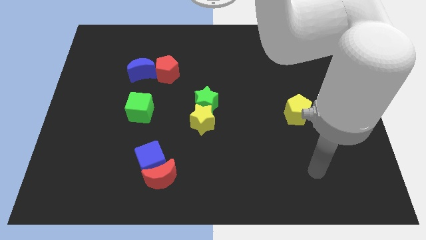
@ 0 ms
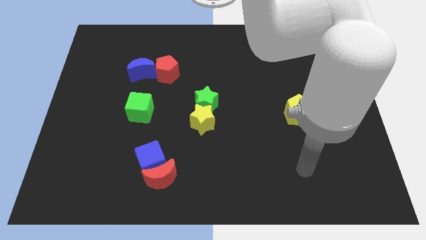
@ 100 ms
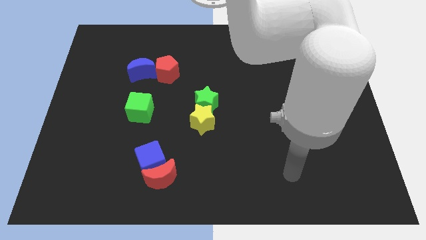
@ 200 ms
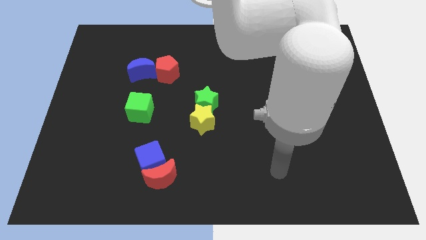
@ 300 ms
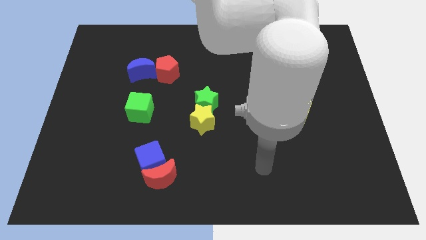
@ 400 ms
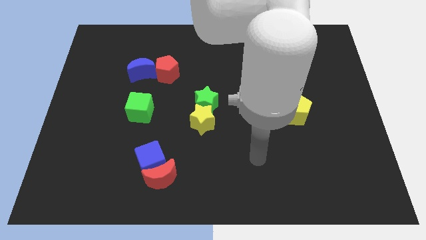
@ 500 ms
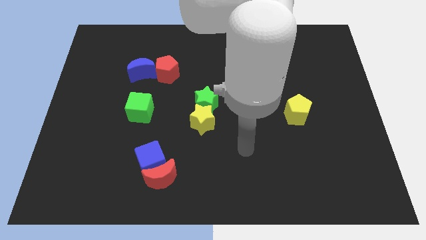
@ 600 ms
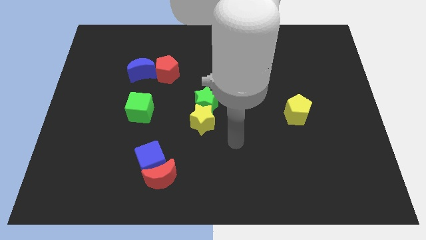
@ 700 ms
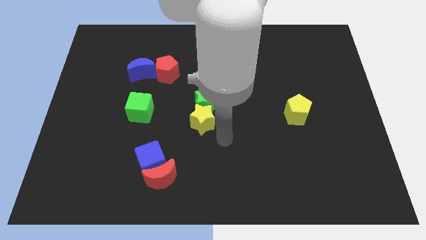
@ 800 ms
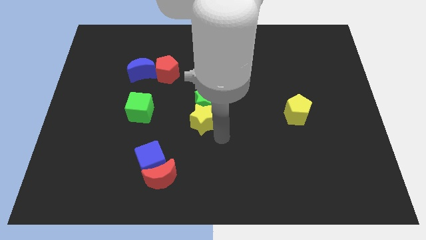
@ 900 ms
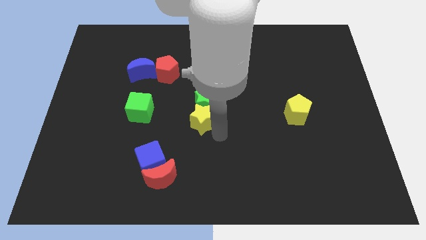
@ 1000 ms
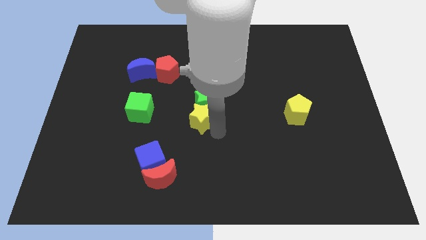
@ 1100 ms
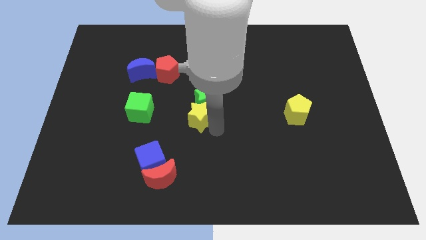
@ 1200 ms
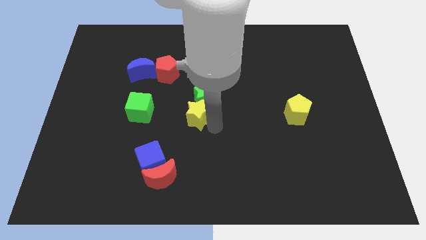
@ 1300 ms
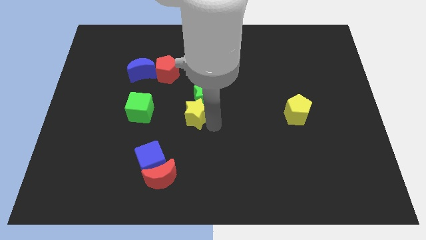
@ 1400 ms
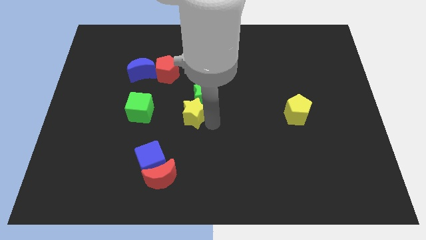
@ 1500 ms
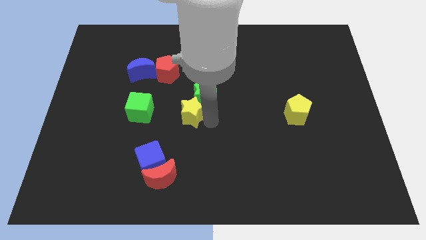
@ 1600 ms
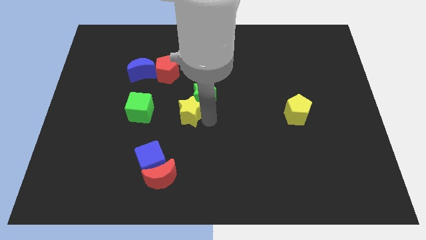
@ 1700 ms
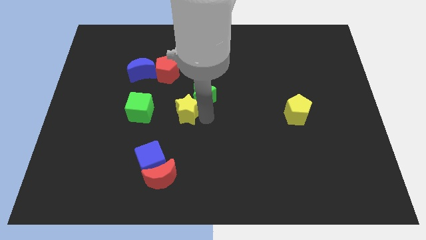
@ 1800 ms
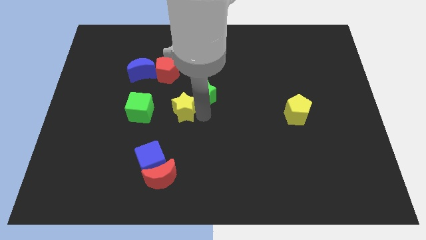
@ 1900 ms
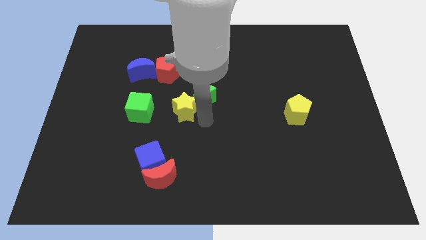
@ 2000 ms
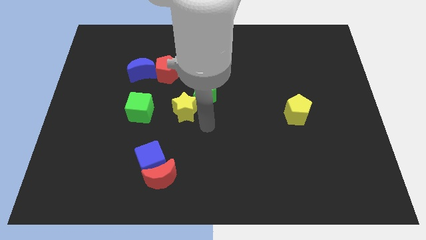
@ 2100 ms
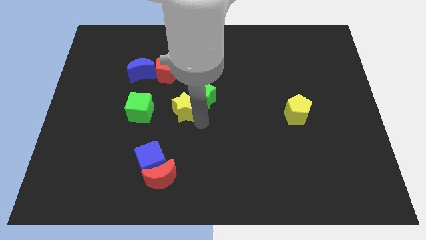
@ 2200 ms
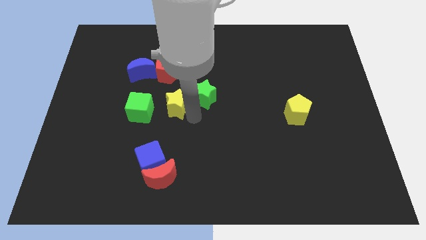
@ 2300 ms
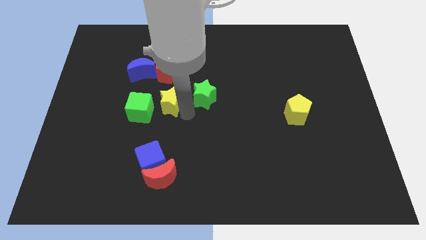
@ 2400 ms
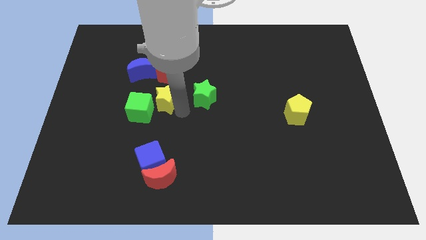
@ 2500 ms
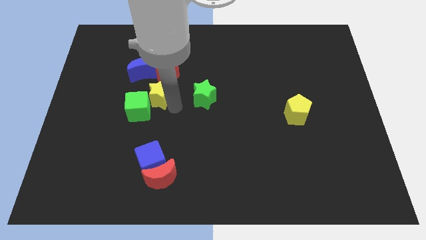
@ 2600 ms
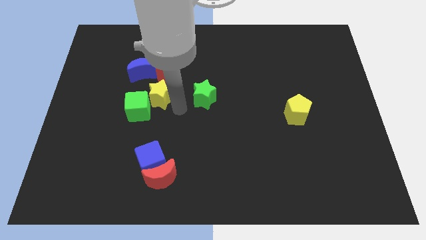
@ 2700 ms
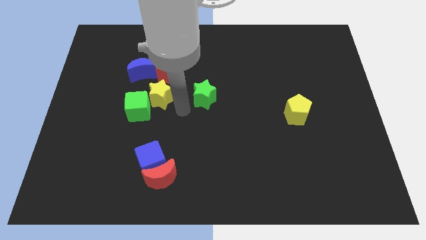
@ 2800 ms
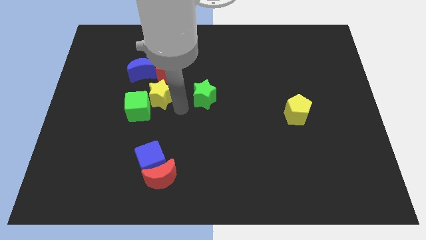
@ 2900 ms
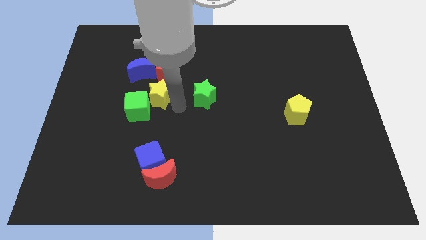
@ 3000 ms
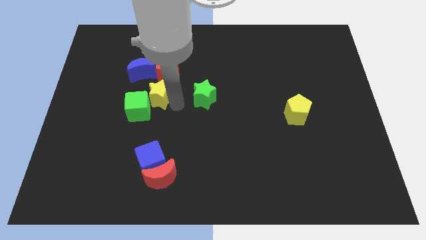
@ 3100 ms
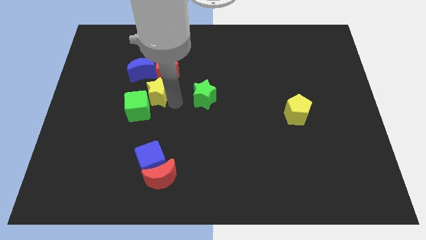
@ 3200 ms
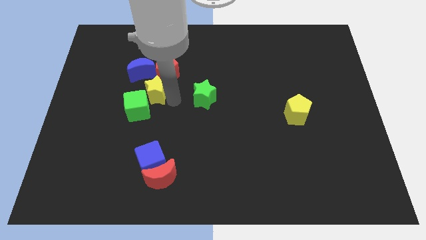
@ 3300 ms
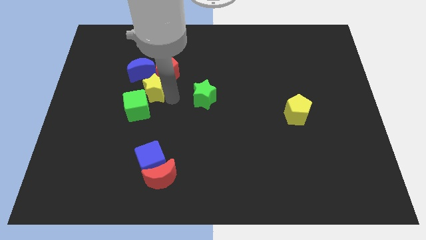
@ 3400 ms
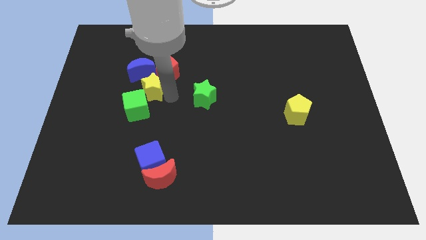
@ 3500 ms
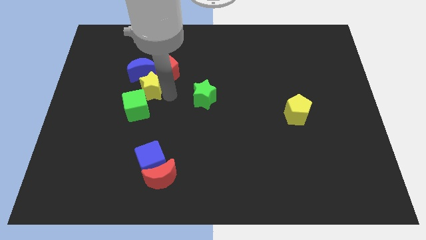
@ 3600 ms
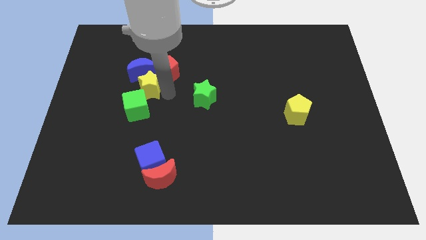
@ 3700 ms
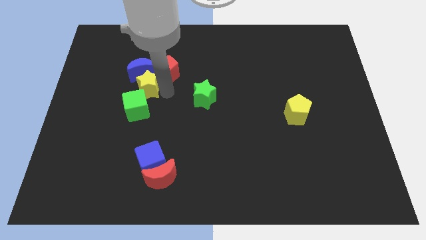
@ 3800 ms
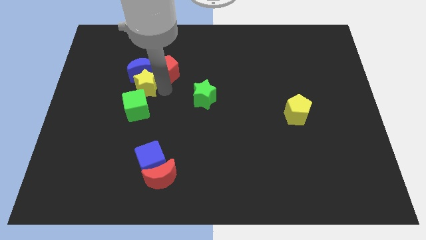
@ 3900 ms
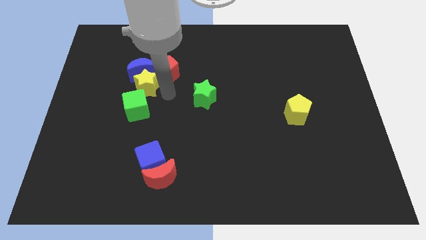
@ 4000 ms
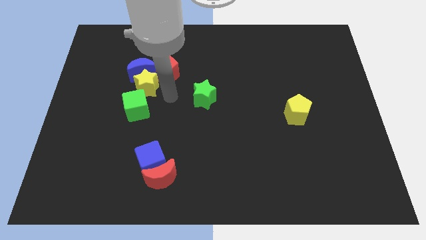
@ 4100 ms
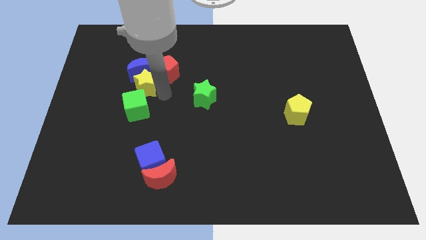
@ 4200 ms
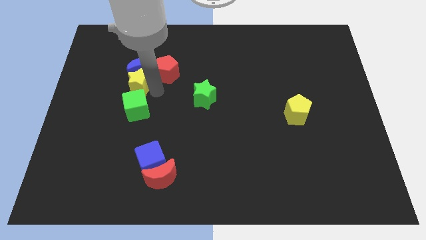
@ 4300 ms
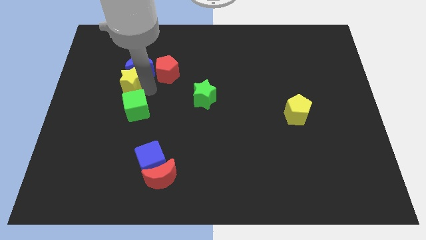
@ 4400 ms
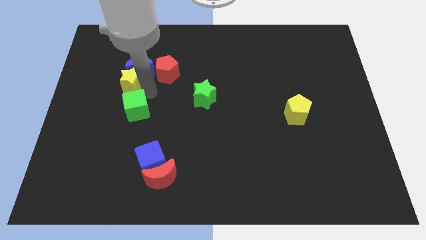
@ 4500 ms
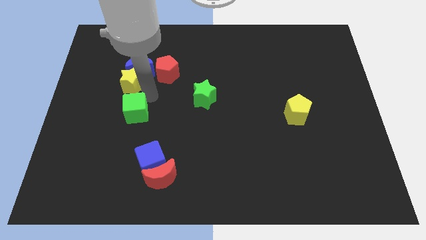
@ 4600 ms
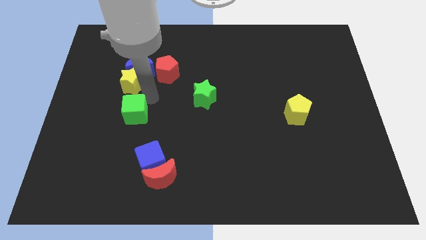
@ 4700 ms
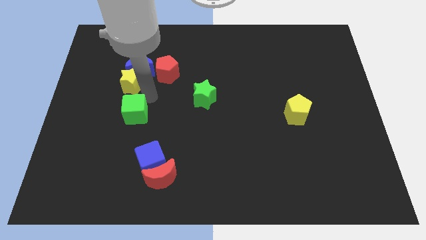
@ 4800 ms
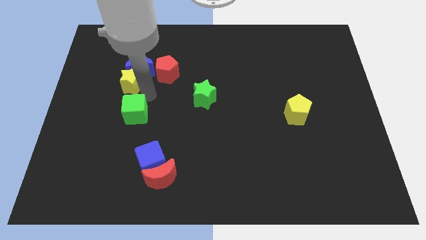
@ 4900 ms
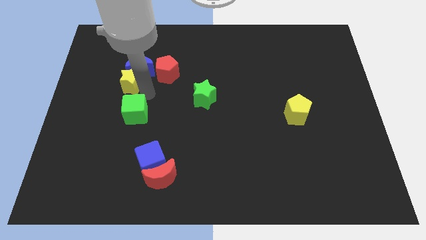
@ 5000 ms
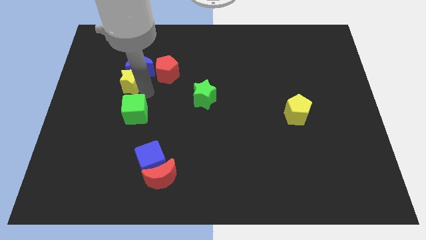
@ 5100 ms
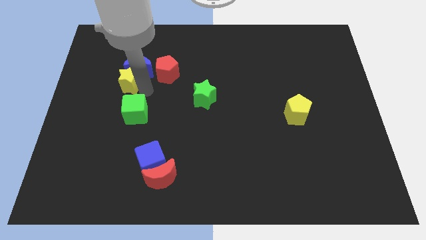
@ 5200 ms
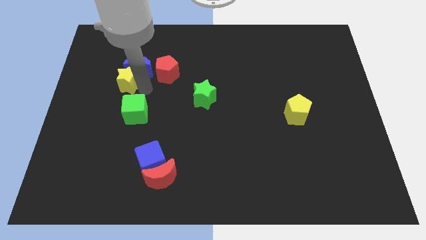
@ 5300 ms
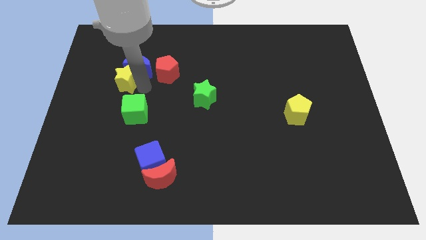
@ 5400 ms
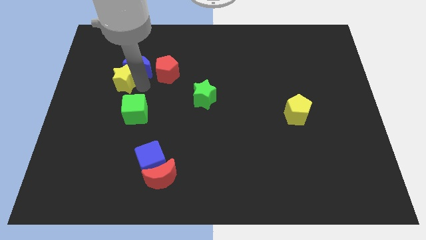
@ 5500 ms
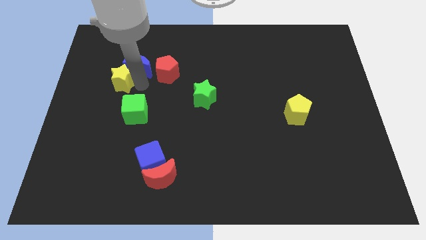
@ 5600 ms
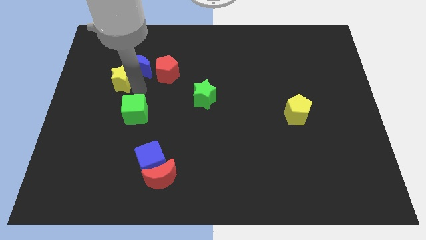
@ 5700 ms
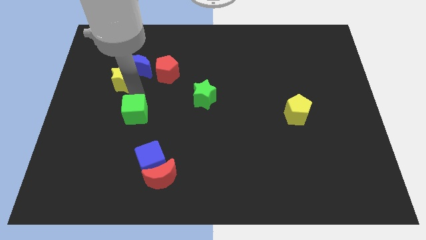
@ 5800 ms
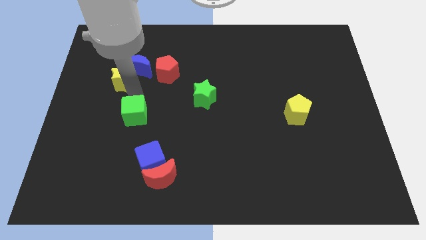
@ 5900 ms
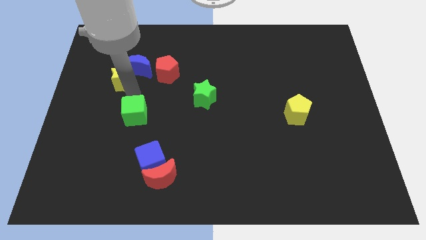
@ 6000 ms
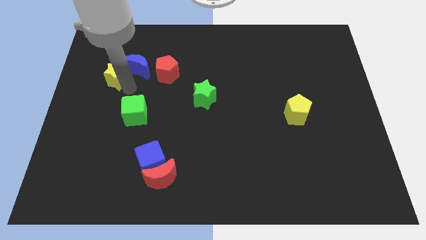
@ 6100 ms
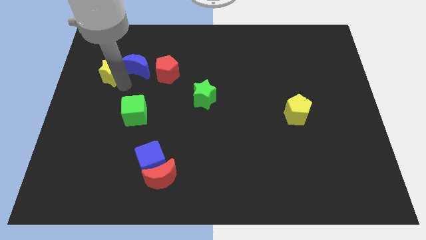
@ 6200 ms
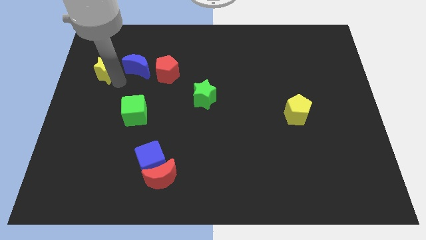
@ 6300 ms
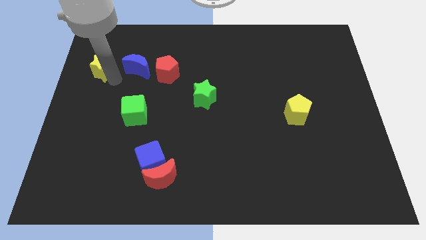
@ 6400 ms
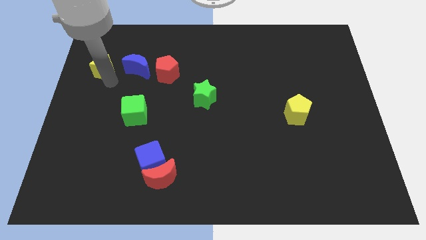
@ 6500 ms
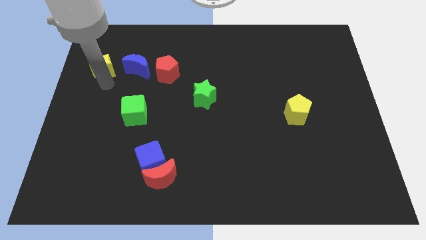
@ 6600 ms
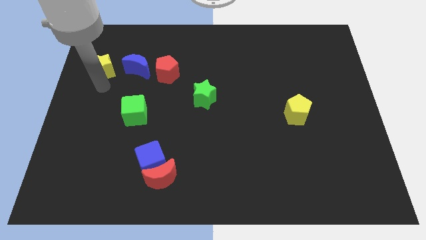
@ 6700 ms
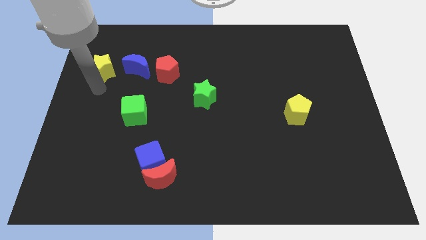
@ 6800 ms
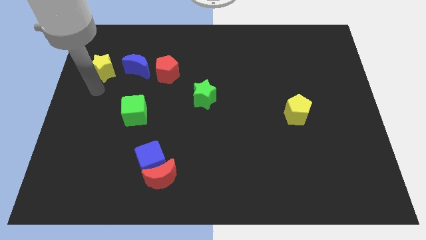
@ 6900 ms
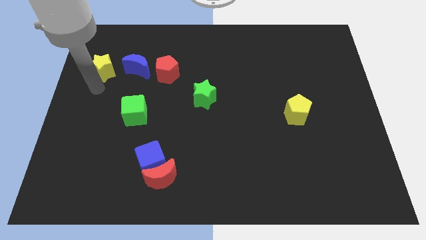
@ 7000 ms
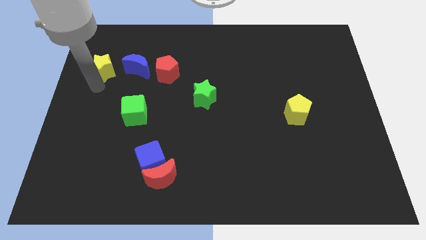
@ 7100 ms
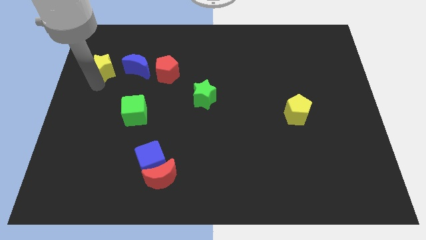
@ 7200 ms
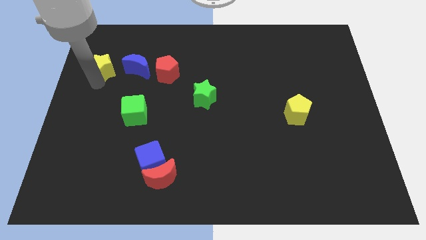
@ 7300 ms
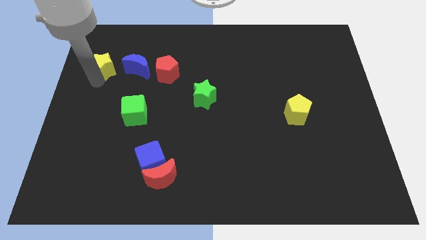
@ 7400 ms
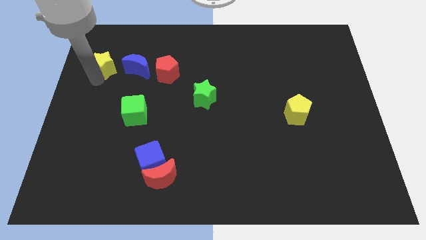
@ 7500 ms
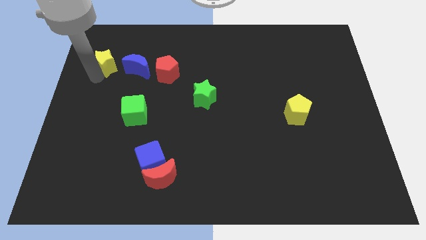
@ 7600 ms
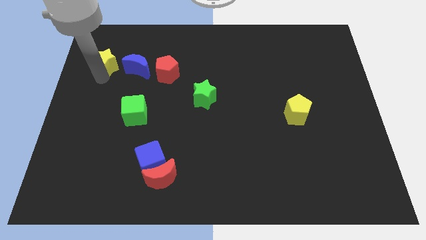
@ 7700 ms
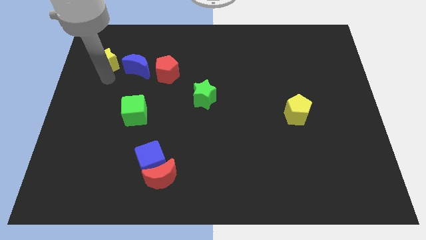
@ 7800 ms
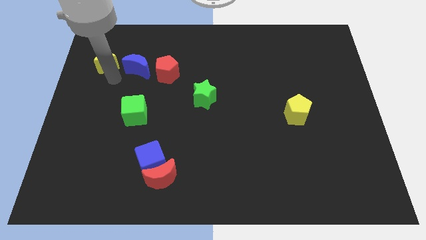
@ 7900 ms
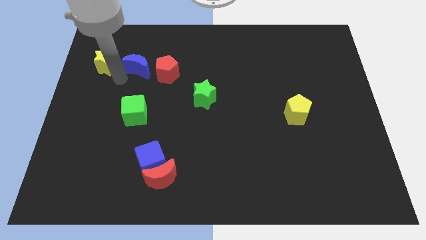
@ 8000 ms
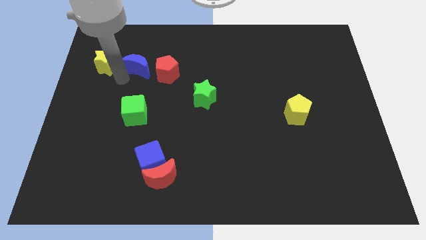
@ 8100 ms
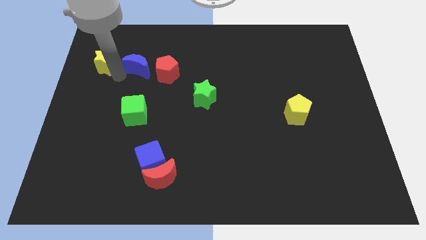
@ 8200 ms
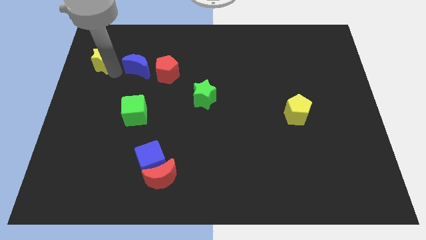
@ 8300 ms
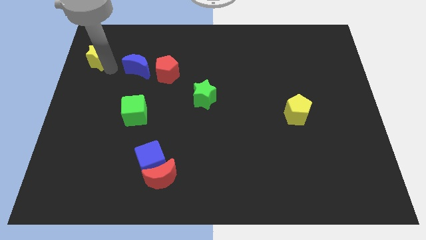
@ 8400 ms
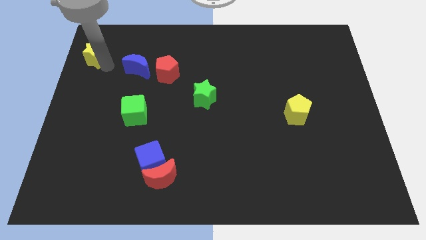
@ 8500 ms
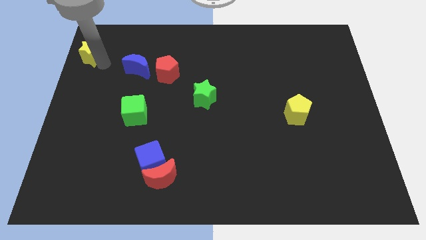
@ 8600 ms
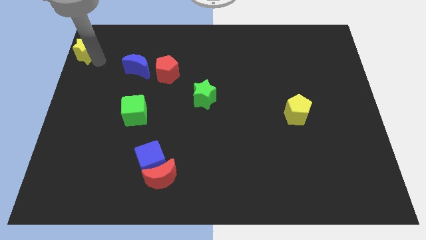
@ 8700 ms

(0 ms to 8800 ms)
slide the yellow star to the top left corner
